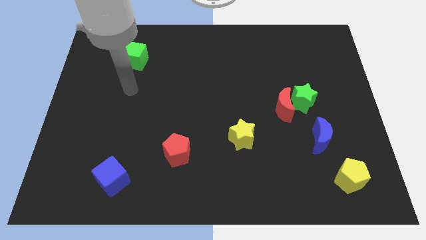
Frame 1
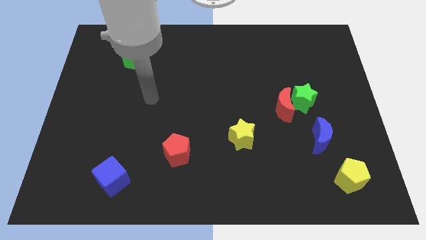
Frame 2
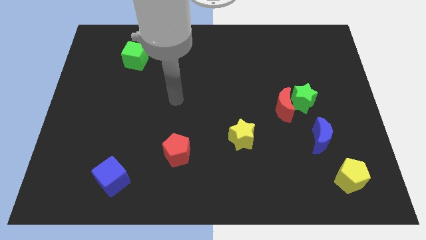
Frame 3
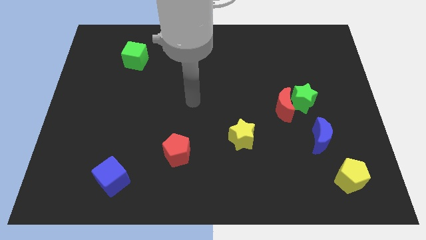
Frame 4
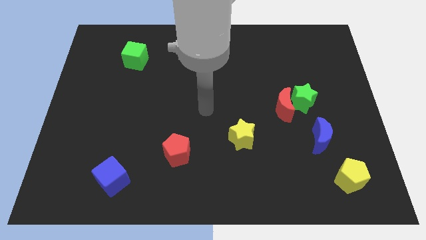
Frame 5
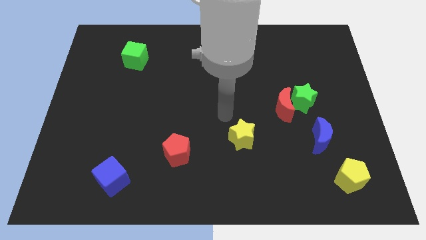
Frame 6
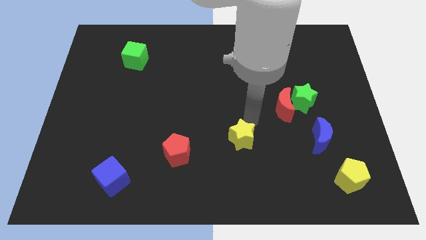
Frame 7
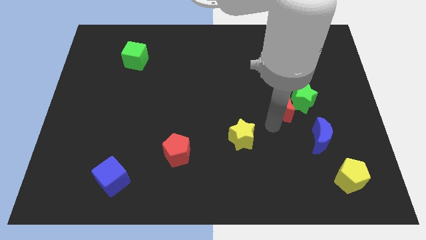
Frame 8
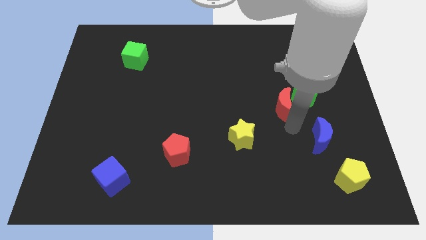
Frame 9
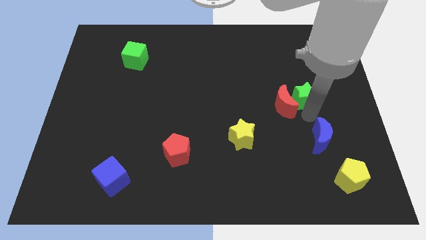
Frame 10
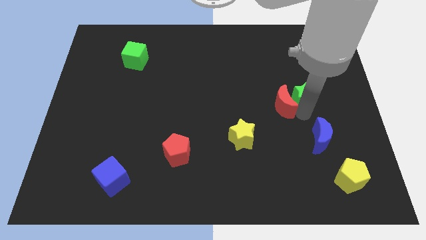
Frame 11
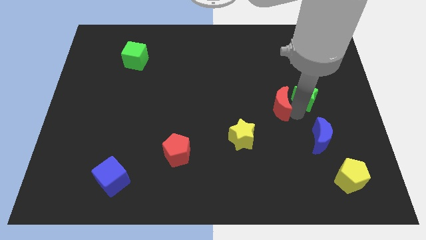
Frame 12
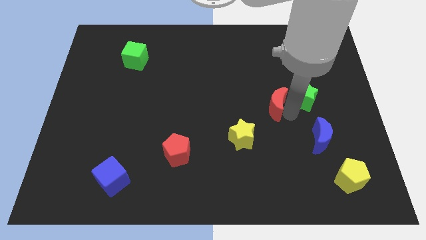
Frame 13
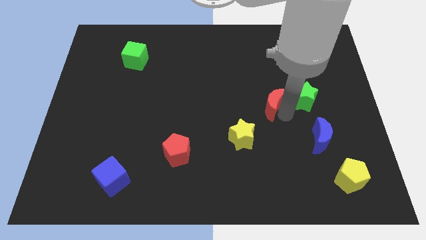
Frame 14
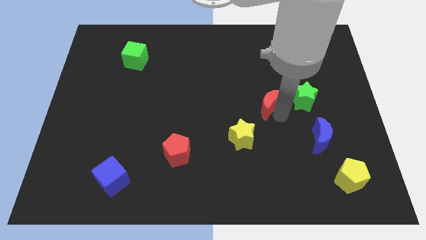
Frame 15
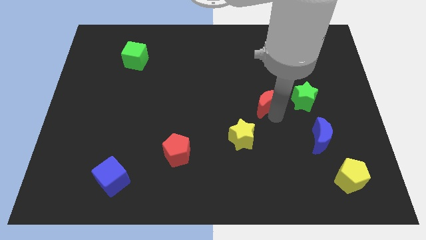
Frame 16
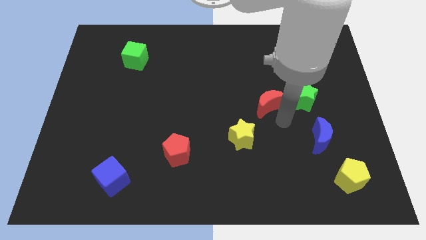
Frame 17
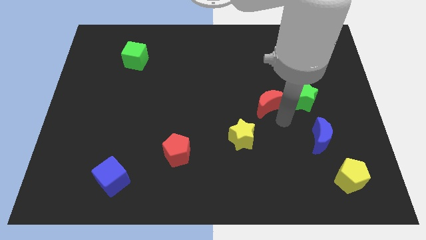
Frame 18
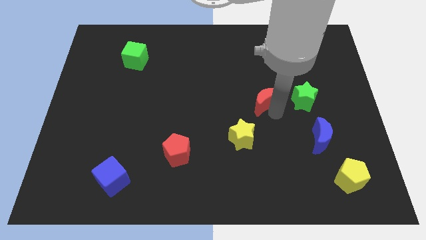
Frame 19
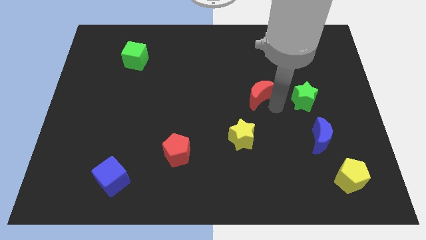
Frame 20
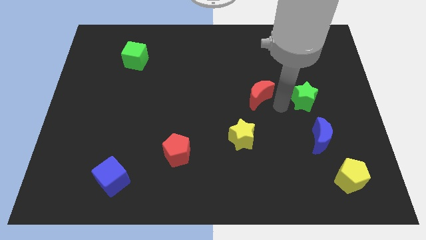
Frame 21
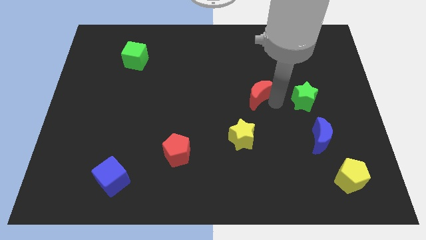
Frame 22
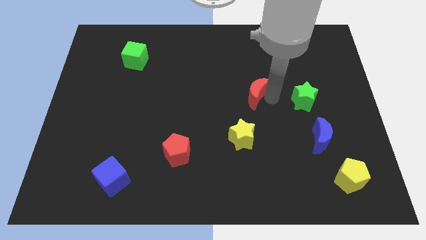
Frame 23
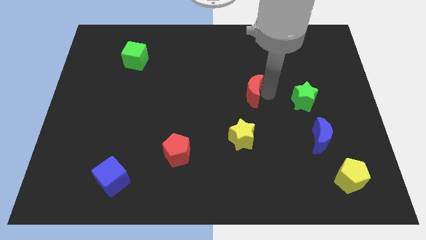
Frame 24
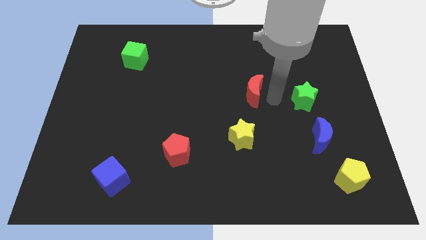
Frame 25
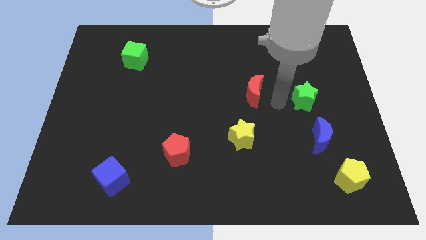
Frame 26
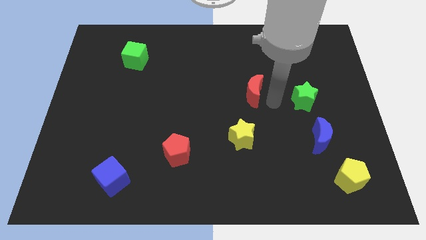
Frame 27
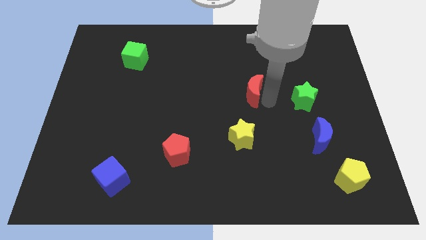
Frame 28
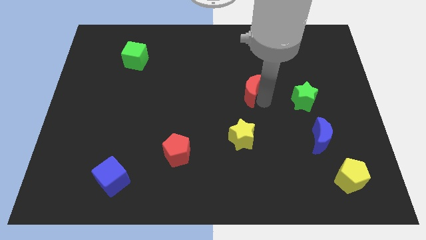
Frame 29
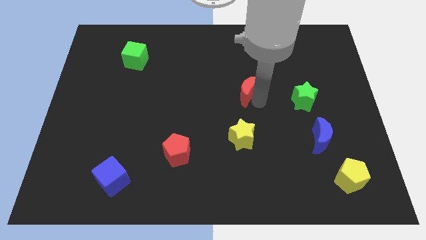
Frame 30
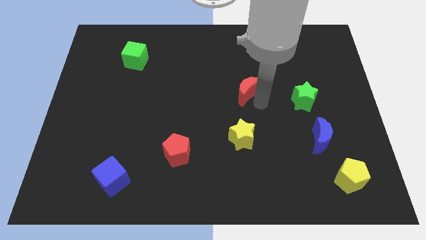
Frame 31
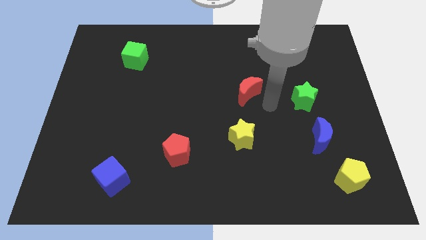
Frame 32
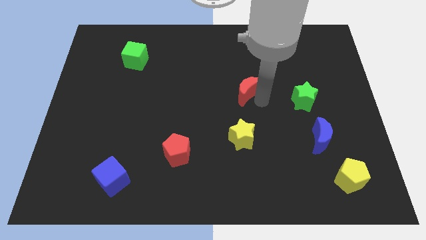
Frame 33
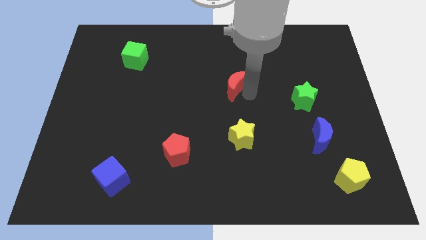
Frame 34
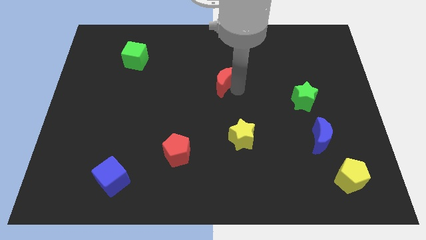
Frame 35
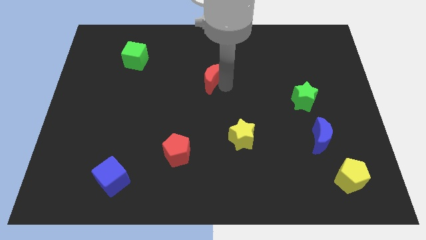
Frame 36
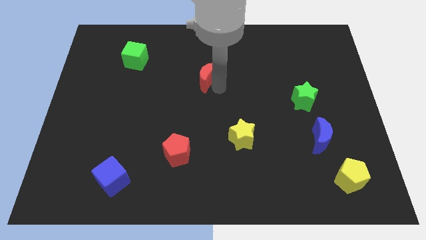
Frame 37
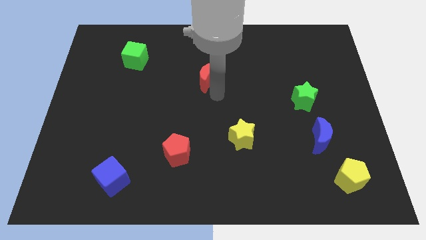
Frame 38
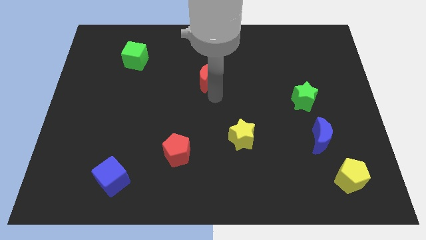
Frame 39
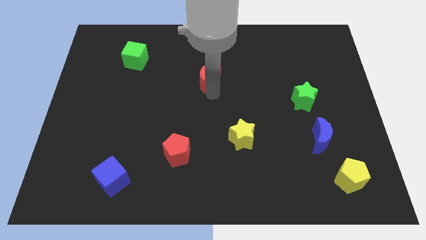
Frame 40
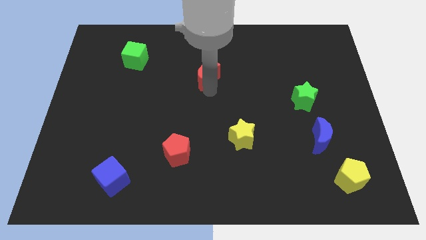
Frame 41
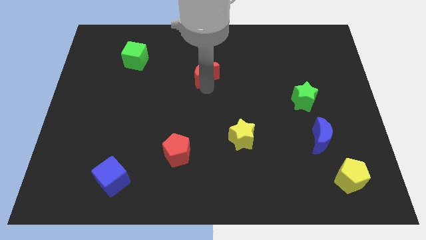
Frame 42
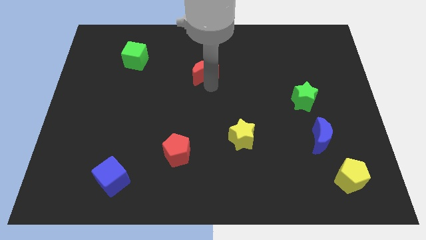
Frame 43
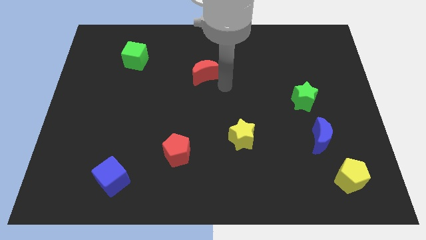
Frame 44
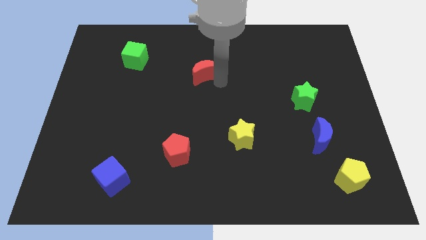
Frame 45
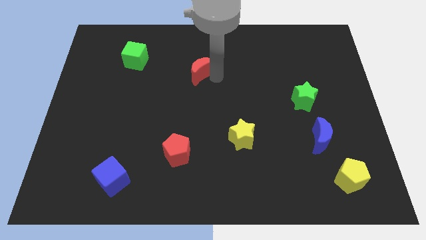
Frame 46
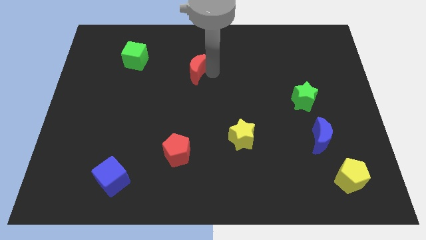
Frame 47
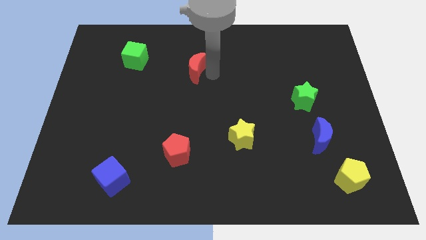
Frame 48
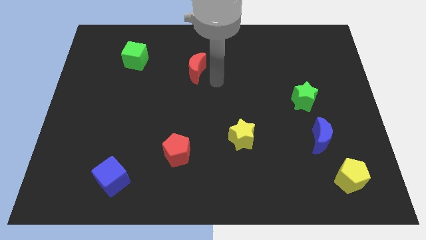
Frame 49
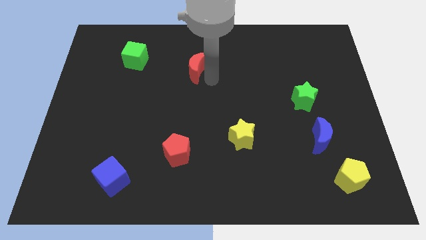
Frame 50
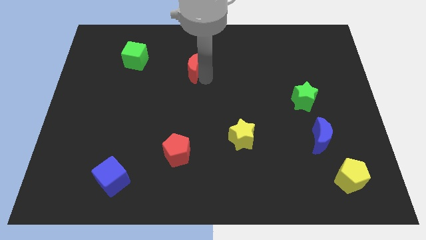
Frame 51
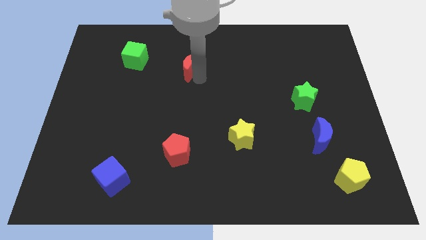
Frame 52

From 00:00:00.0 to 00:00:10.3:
put the red moon to the right side of the green cube

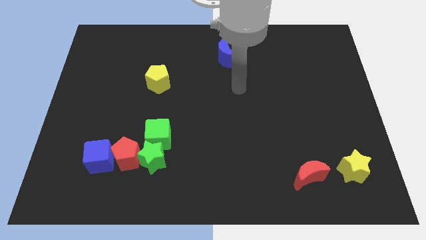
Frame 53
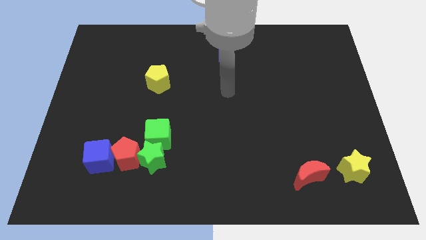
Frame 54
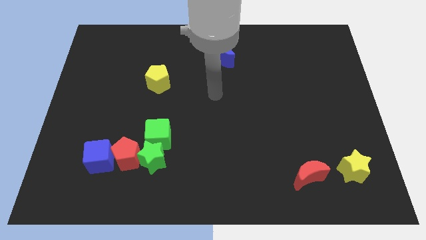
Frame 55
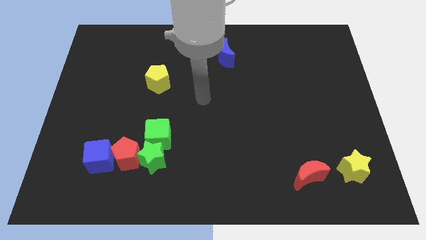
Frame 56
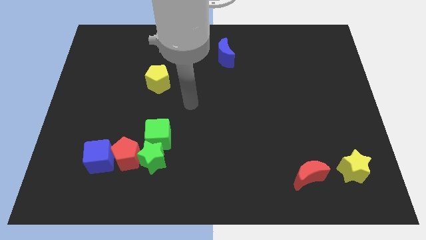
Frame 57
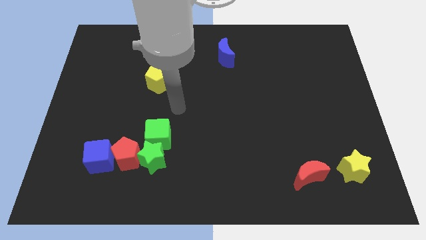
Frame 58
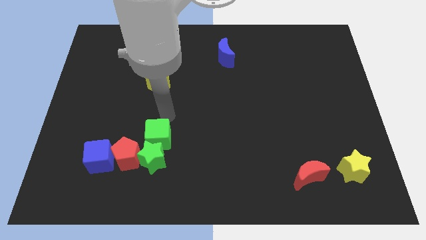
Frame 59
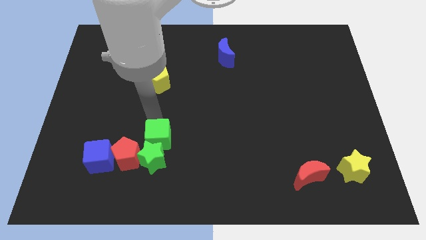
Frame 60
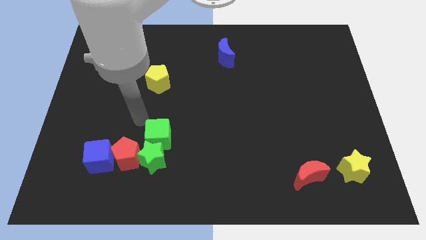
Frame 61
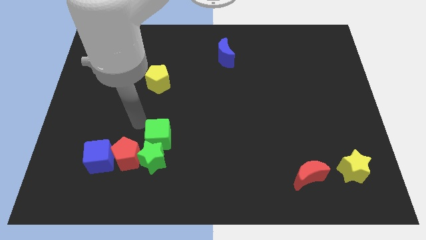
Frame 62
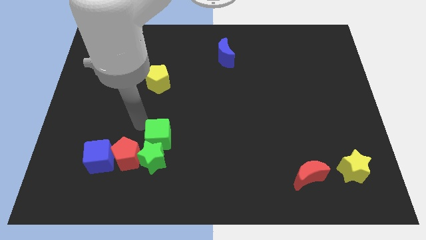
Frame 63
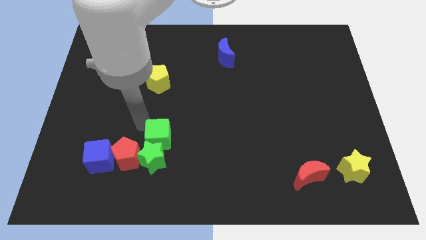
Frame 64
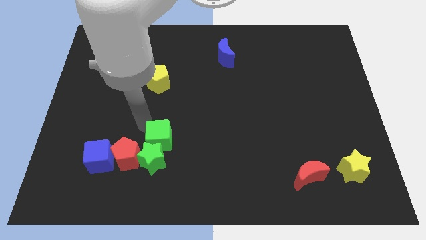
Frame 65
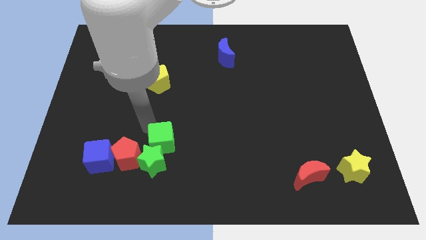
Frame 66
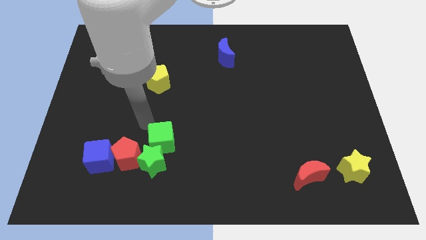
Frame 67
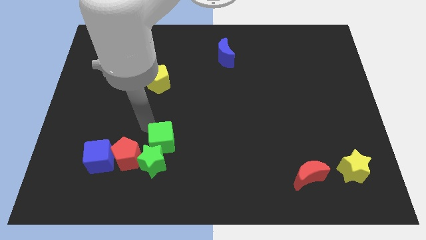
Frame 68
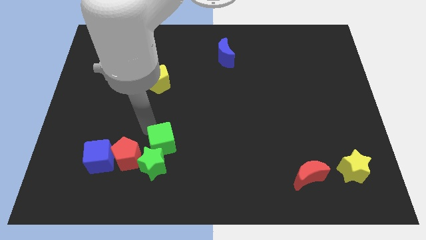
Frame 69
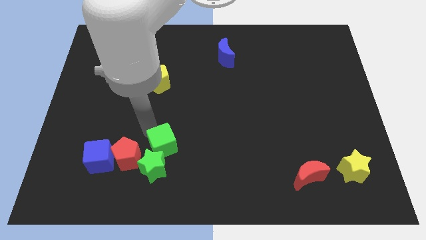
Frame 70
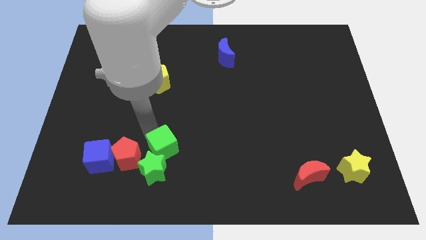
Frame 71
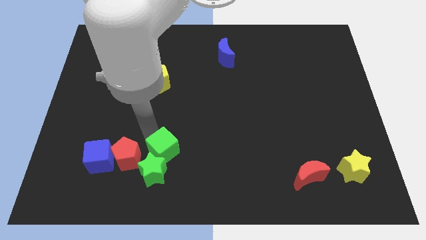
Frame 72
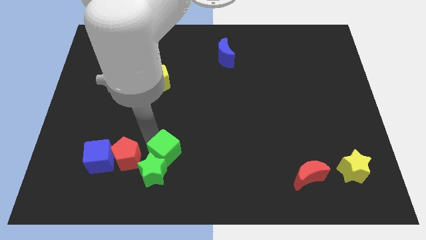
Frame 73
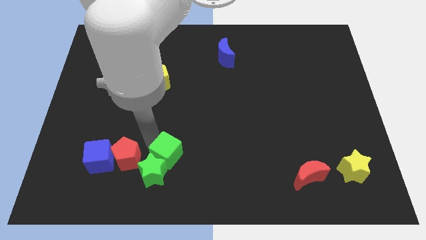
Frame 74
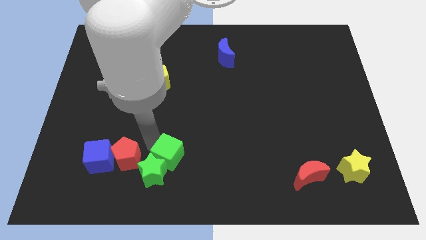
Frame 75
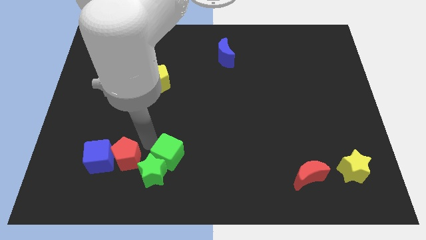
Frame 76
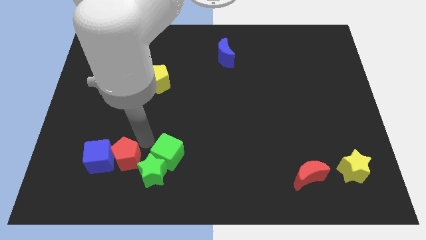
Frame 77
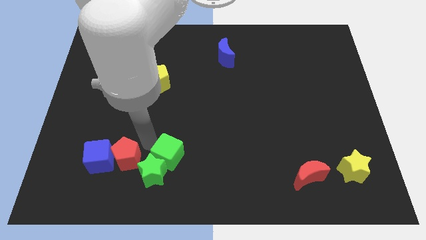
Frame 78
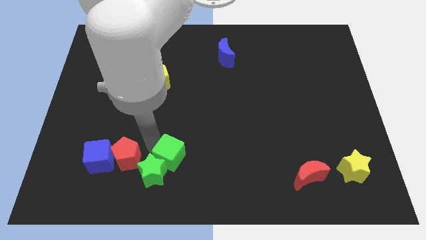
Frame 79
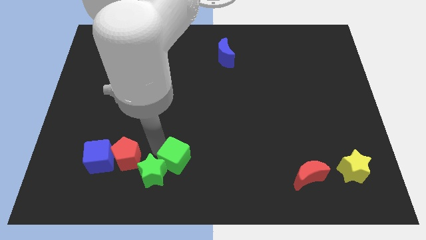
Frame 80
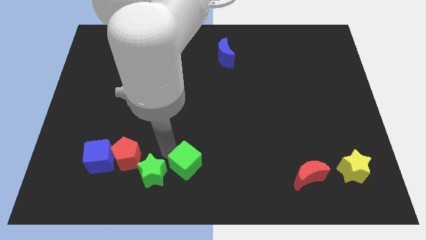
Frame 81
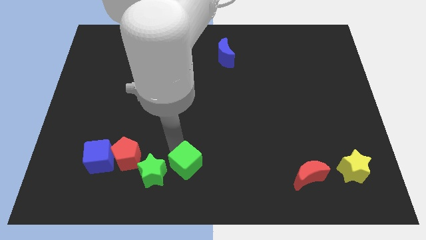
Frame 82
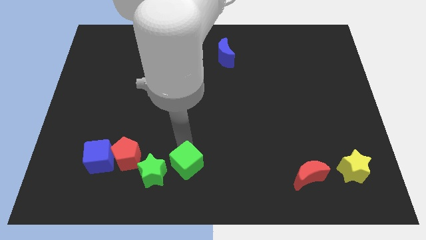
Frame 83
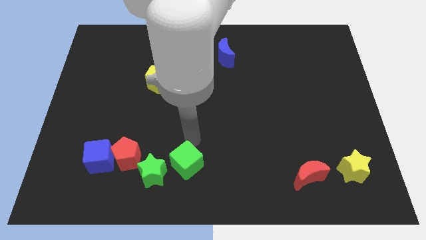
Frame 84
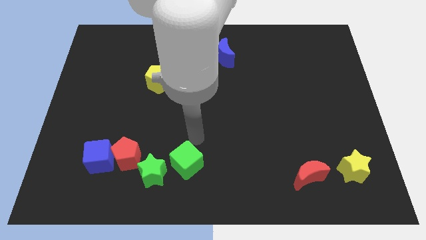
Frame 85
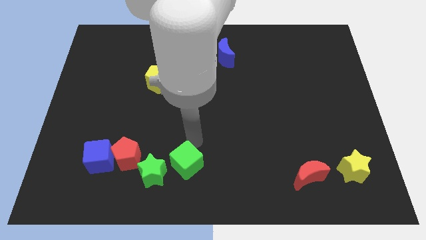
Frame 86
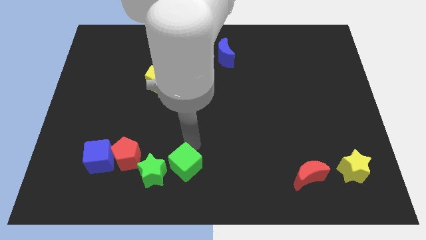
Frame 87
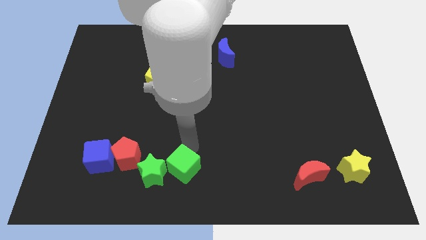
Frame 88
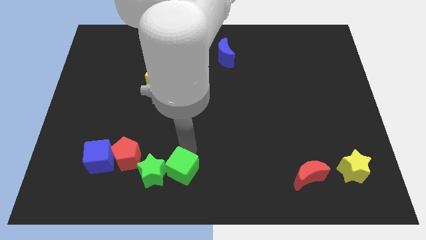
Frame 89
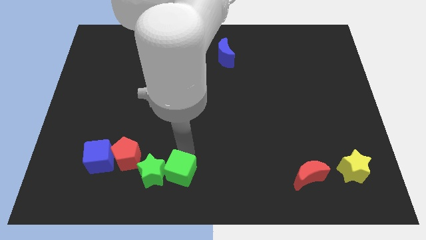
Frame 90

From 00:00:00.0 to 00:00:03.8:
put the green cube to the bottom right of the green star
